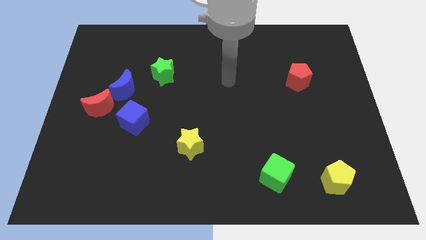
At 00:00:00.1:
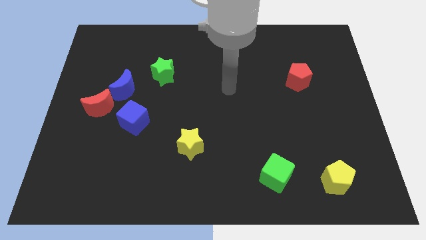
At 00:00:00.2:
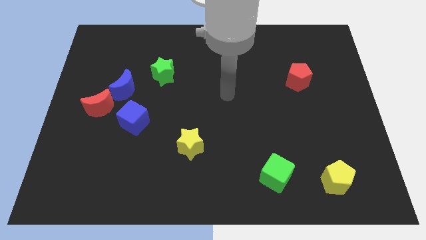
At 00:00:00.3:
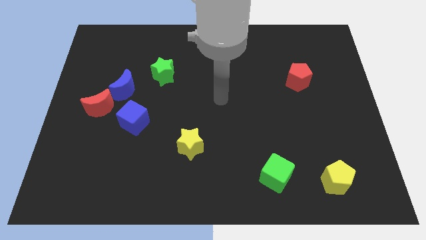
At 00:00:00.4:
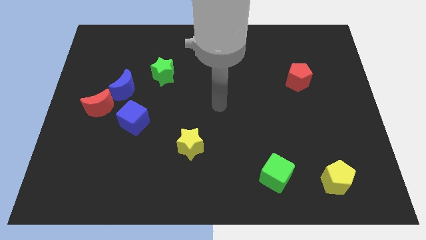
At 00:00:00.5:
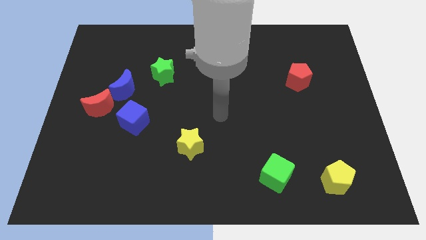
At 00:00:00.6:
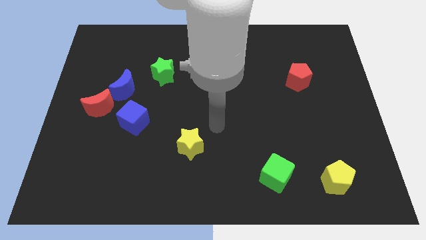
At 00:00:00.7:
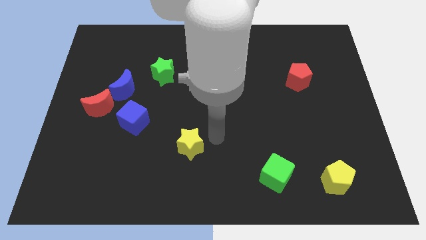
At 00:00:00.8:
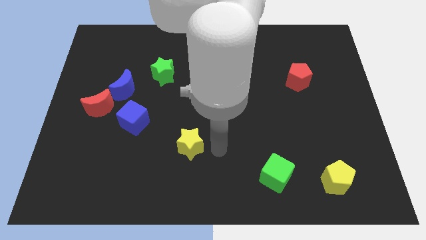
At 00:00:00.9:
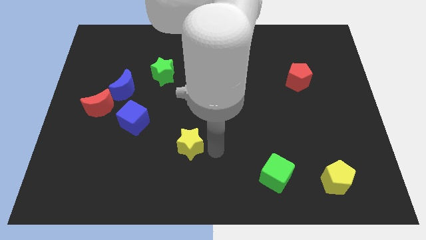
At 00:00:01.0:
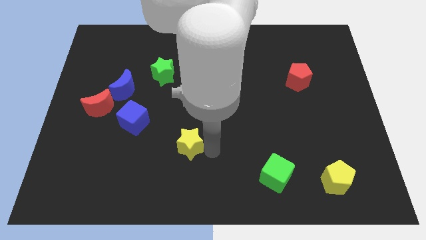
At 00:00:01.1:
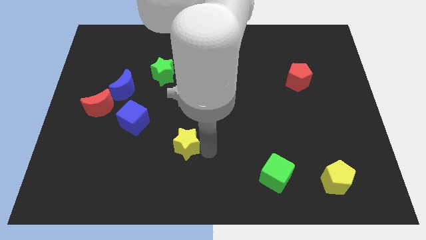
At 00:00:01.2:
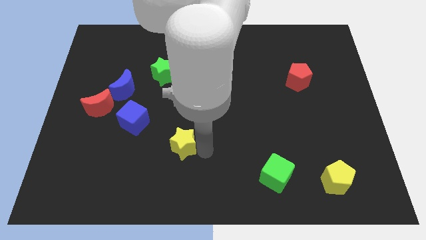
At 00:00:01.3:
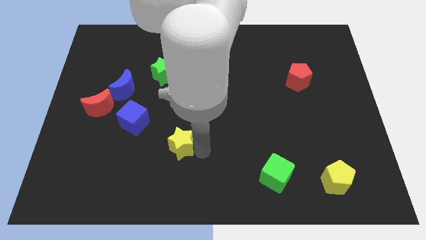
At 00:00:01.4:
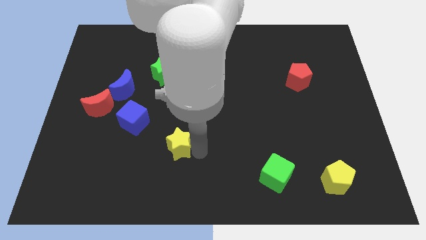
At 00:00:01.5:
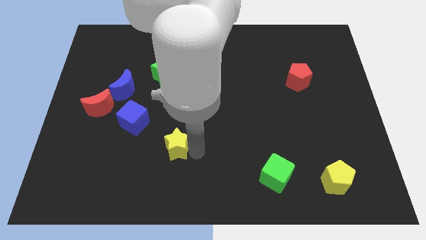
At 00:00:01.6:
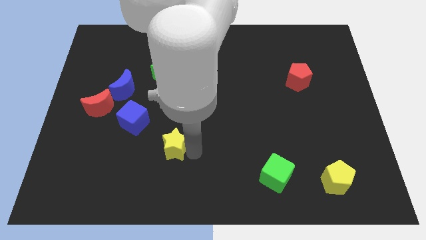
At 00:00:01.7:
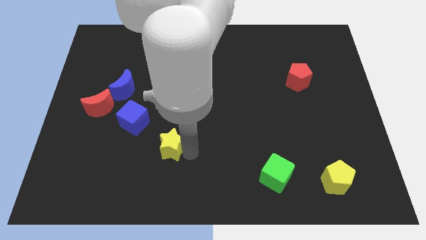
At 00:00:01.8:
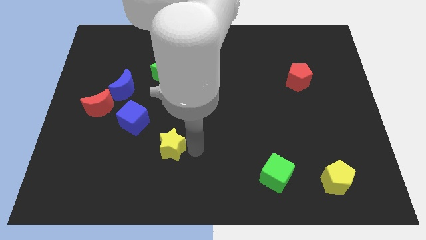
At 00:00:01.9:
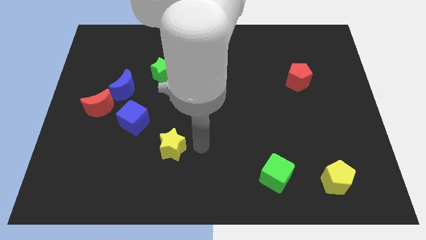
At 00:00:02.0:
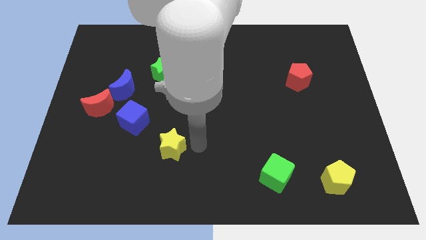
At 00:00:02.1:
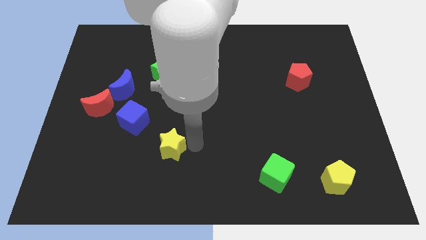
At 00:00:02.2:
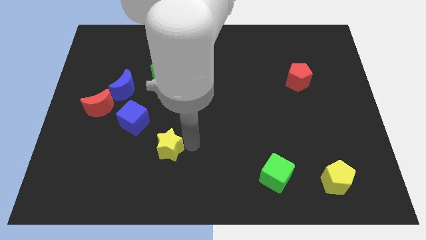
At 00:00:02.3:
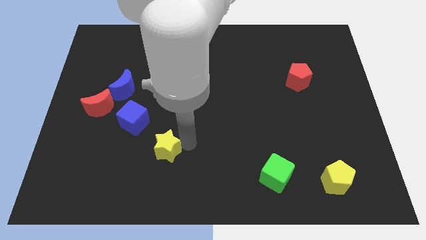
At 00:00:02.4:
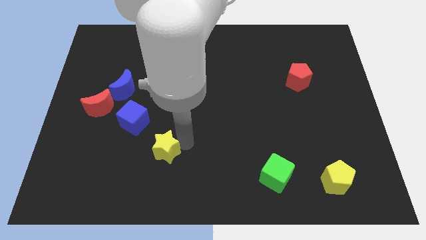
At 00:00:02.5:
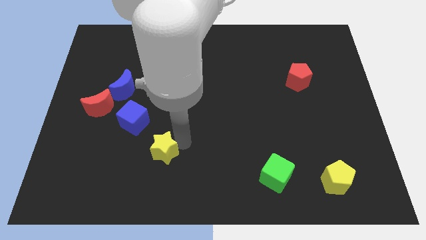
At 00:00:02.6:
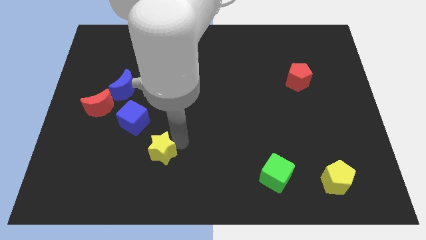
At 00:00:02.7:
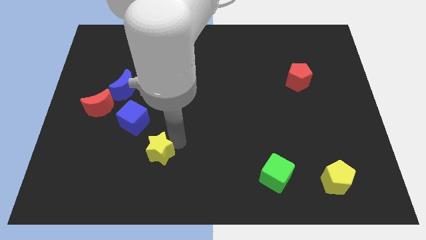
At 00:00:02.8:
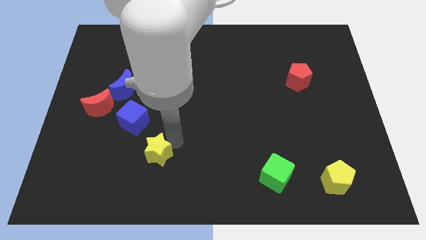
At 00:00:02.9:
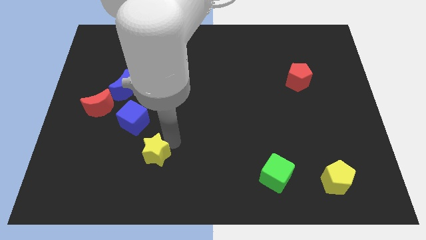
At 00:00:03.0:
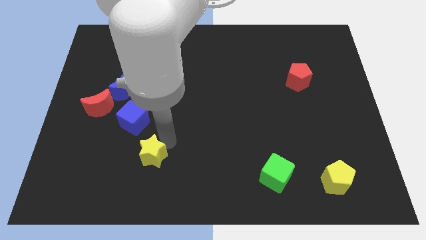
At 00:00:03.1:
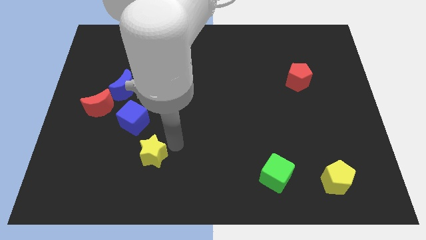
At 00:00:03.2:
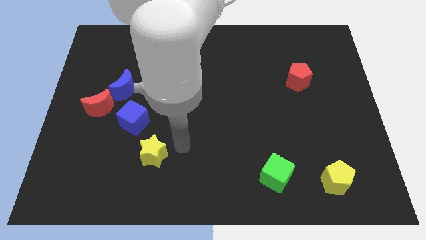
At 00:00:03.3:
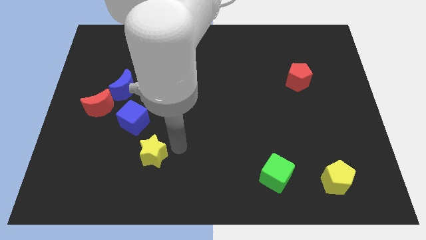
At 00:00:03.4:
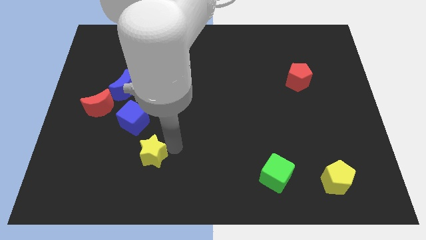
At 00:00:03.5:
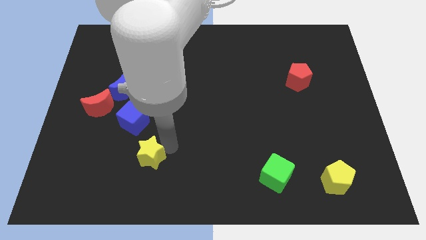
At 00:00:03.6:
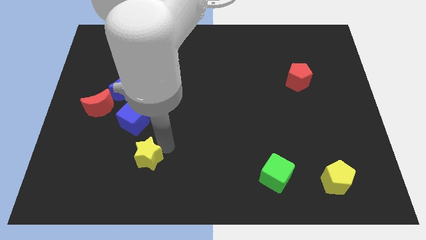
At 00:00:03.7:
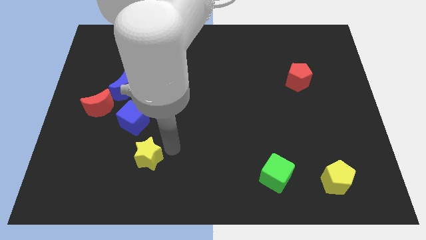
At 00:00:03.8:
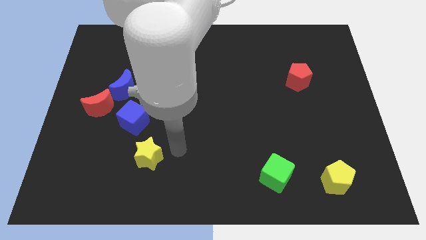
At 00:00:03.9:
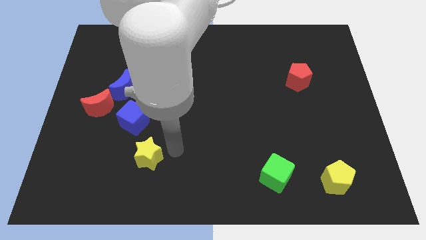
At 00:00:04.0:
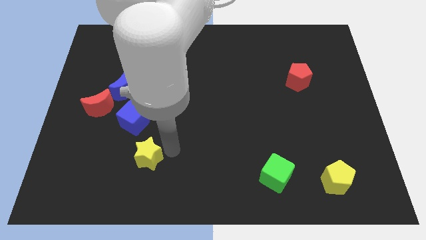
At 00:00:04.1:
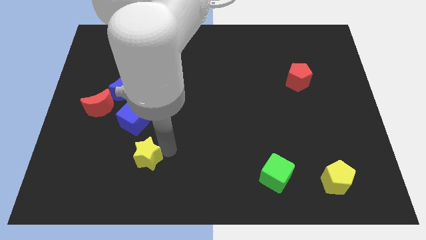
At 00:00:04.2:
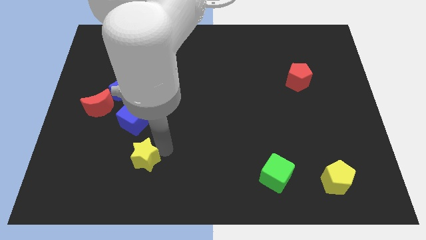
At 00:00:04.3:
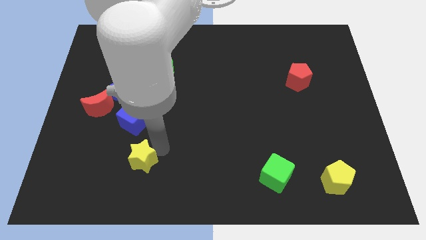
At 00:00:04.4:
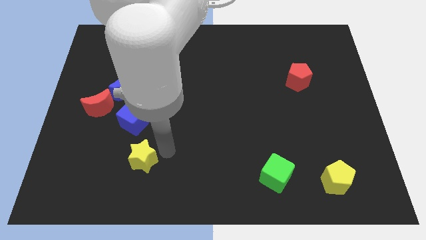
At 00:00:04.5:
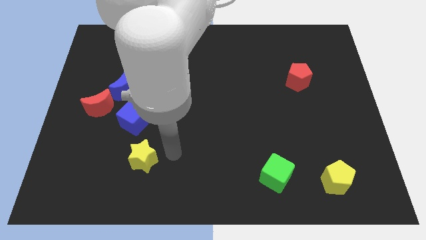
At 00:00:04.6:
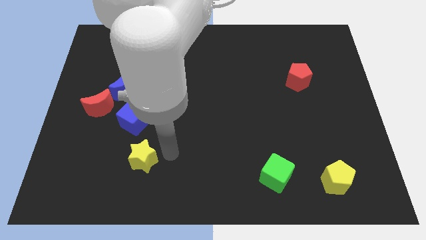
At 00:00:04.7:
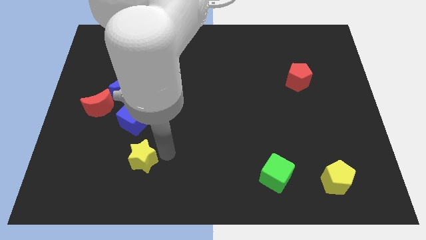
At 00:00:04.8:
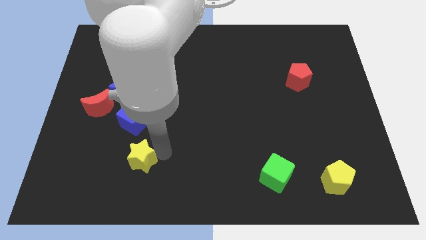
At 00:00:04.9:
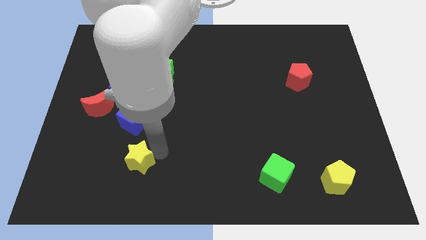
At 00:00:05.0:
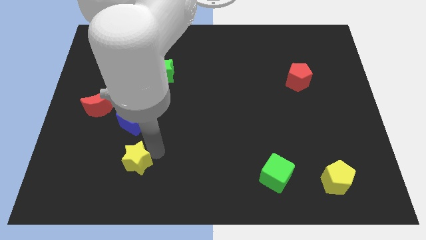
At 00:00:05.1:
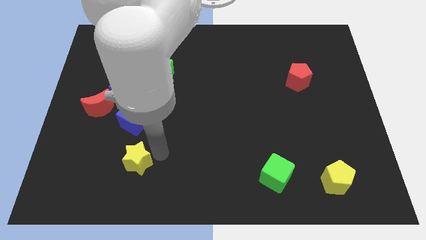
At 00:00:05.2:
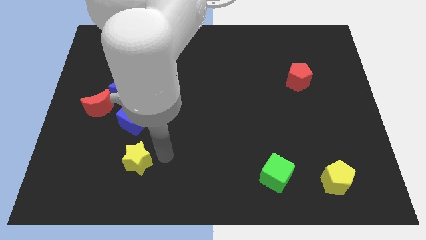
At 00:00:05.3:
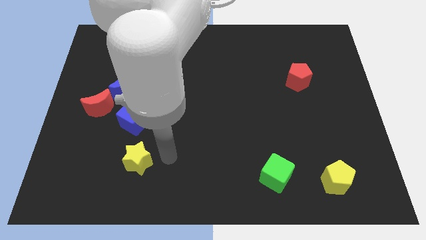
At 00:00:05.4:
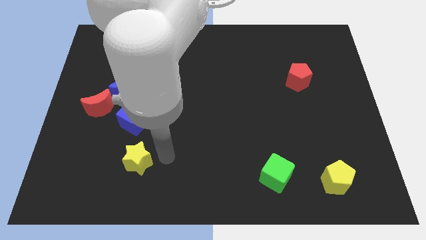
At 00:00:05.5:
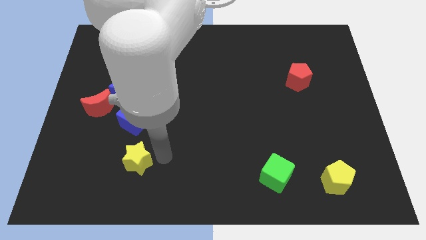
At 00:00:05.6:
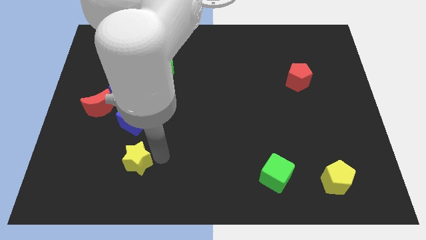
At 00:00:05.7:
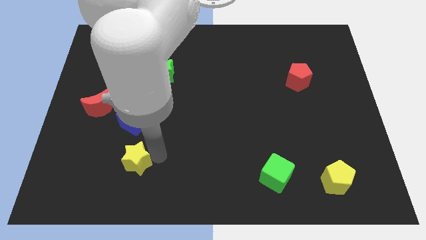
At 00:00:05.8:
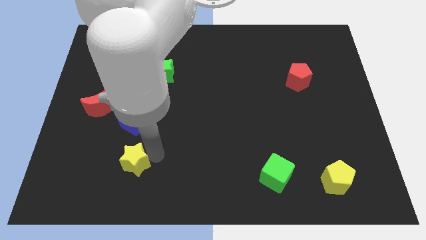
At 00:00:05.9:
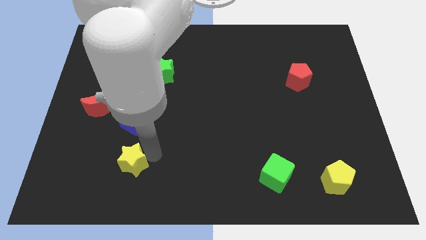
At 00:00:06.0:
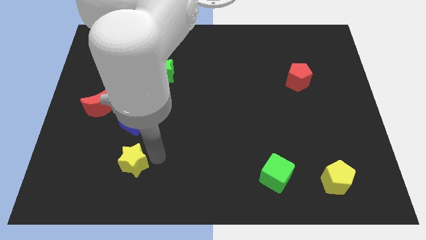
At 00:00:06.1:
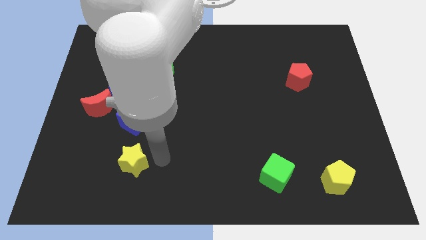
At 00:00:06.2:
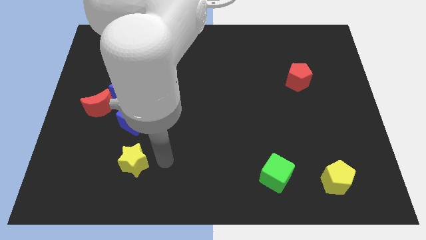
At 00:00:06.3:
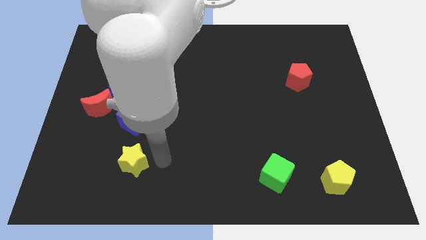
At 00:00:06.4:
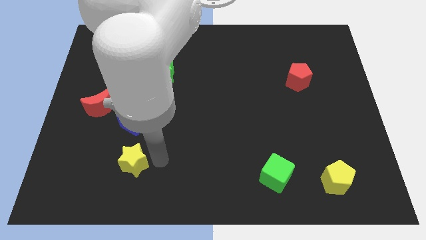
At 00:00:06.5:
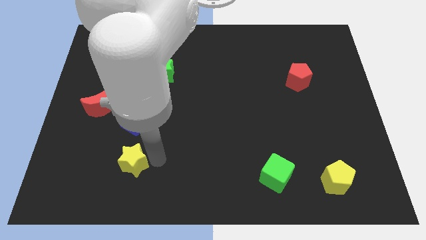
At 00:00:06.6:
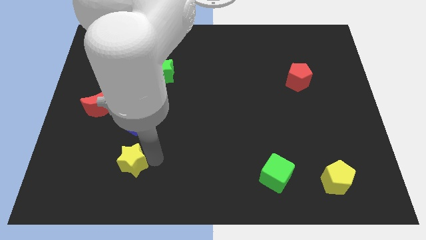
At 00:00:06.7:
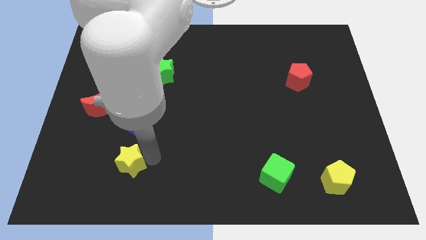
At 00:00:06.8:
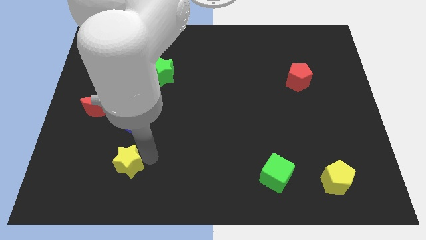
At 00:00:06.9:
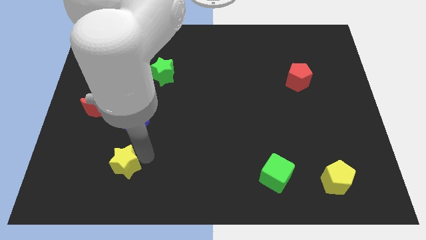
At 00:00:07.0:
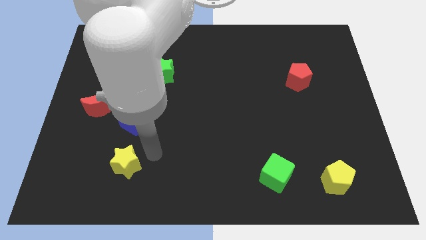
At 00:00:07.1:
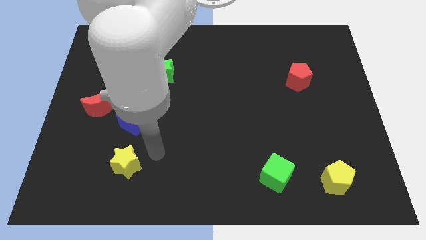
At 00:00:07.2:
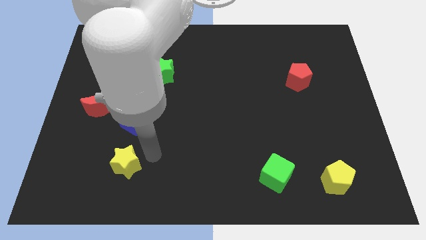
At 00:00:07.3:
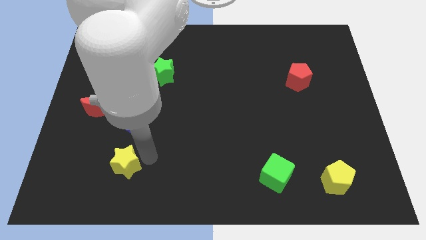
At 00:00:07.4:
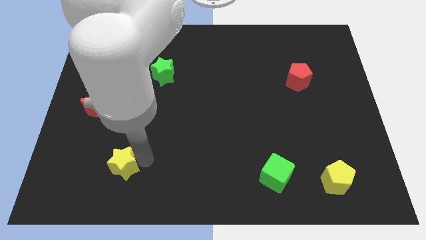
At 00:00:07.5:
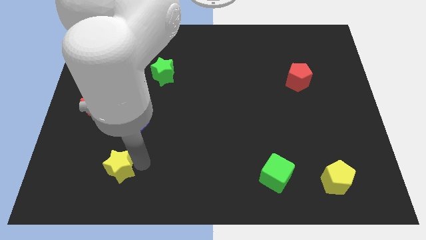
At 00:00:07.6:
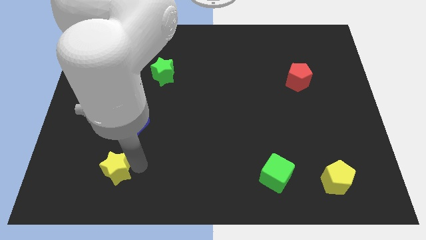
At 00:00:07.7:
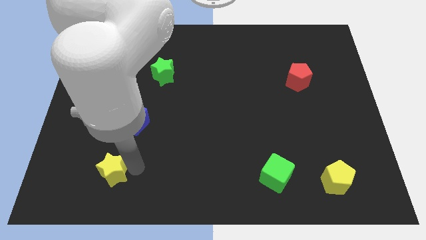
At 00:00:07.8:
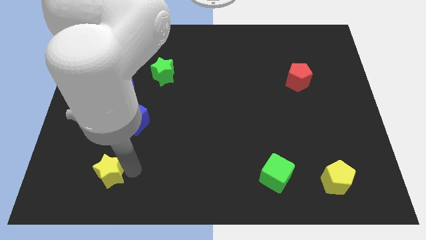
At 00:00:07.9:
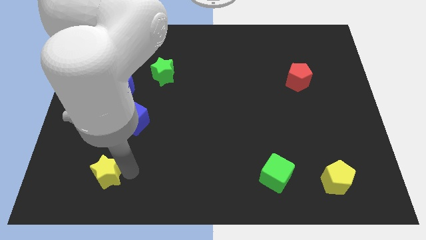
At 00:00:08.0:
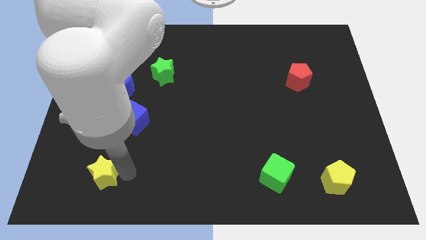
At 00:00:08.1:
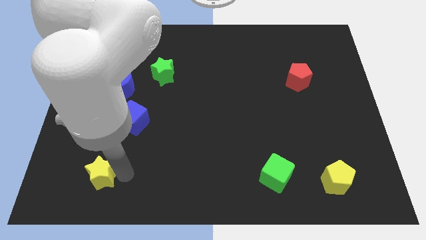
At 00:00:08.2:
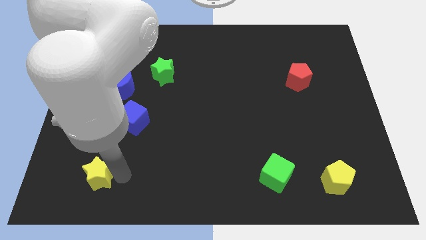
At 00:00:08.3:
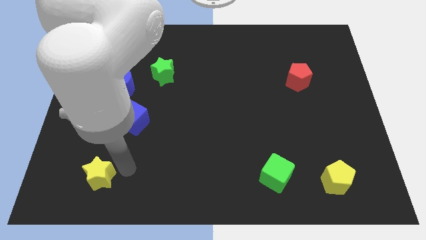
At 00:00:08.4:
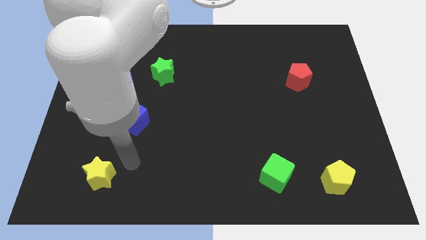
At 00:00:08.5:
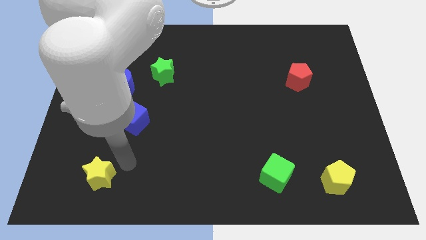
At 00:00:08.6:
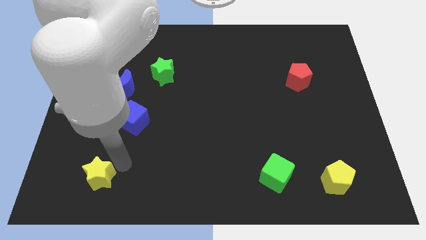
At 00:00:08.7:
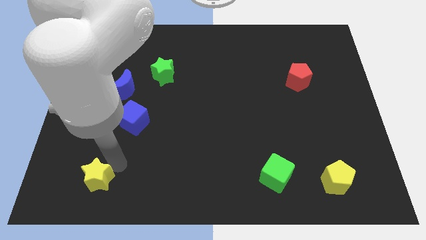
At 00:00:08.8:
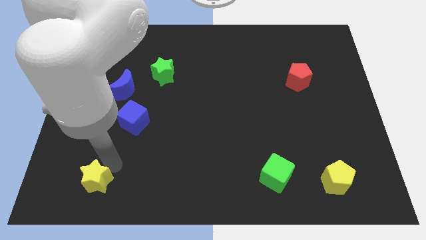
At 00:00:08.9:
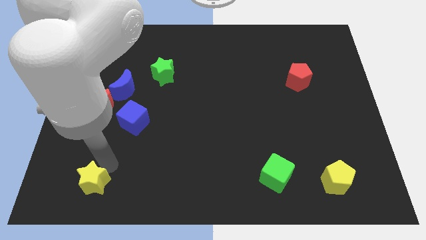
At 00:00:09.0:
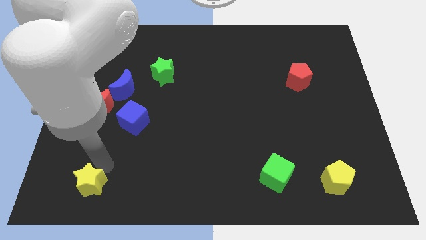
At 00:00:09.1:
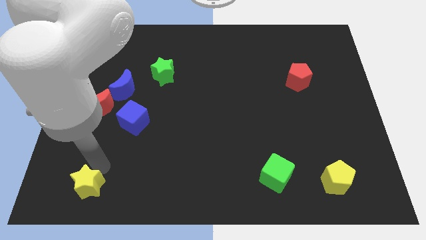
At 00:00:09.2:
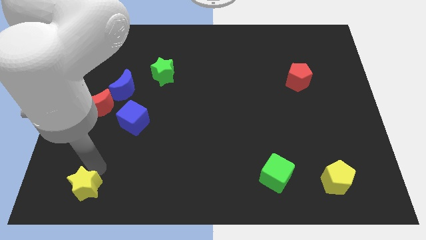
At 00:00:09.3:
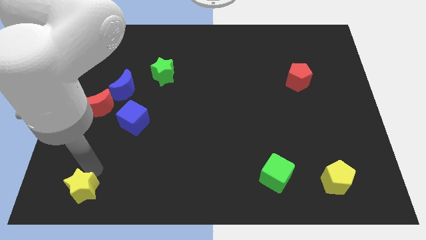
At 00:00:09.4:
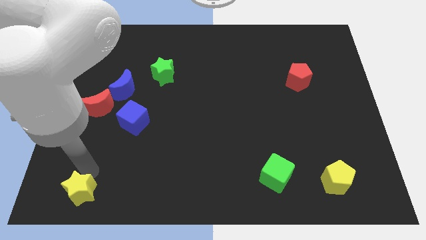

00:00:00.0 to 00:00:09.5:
move the yellow star to the bottom left corner
